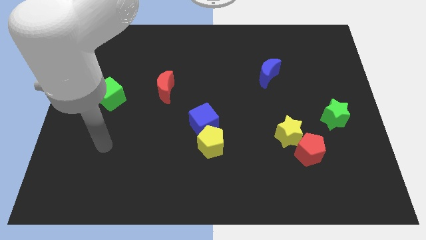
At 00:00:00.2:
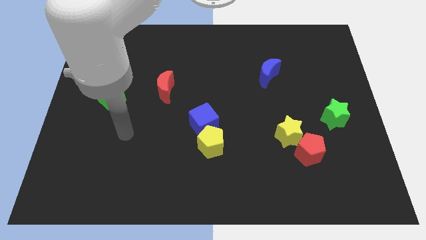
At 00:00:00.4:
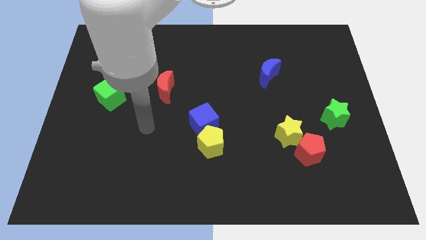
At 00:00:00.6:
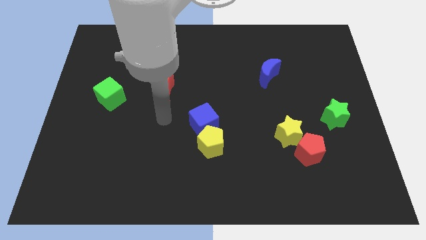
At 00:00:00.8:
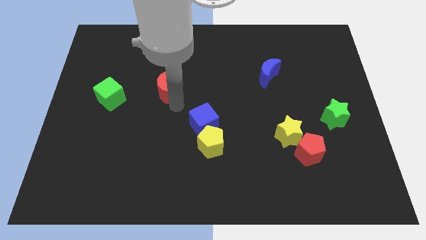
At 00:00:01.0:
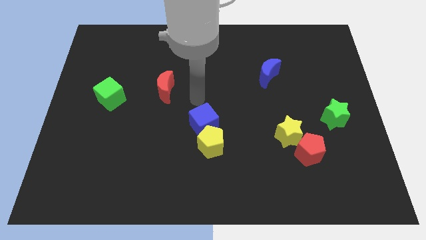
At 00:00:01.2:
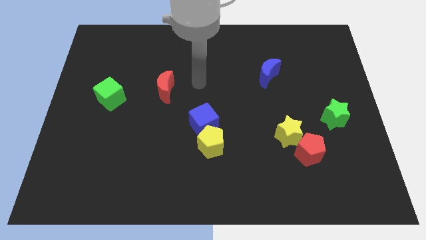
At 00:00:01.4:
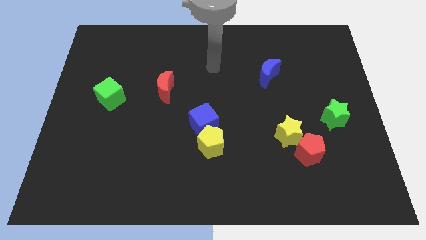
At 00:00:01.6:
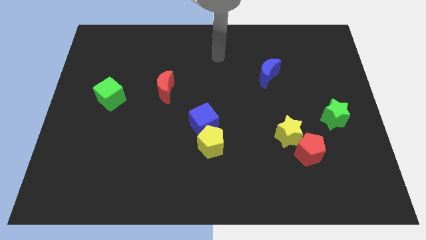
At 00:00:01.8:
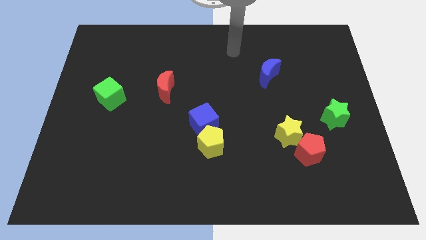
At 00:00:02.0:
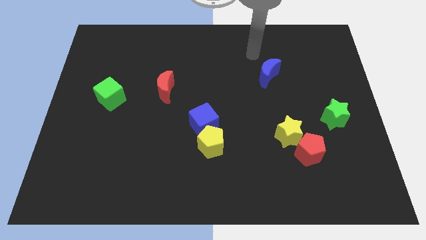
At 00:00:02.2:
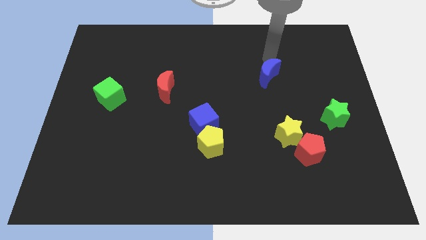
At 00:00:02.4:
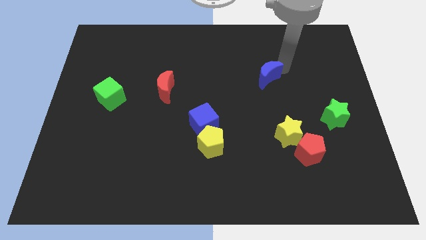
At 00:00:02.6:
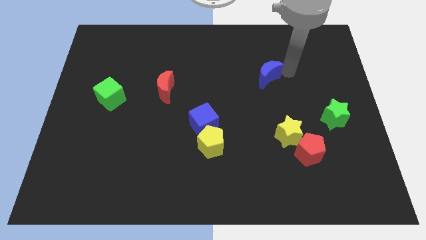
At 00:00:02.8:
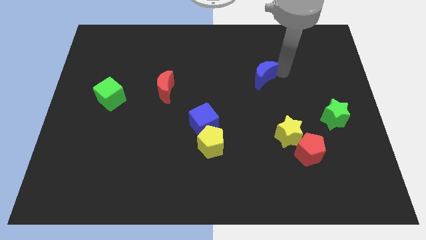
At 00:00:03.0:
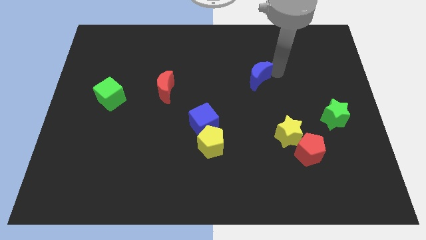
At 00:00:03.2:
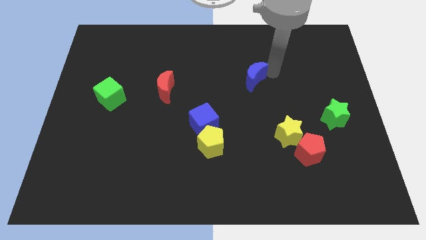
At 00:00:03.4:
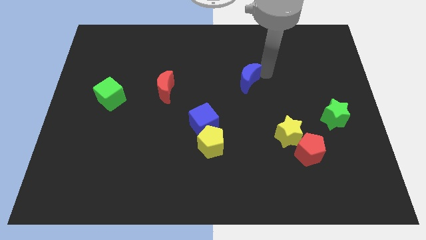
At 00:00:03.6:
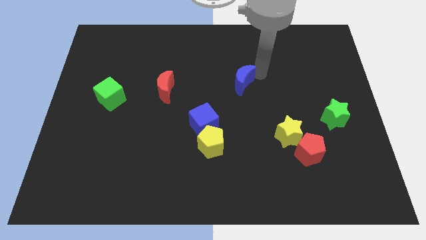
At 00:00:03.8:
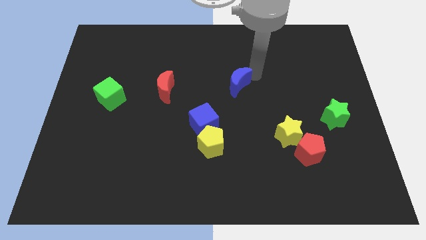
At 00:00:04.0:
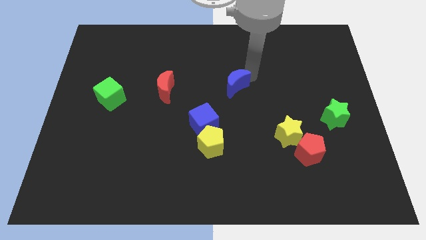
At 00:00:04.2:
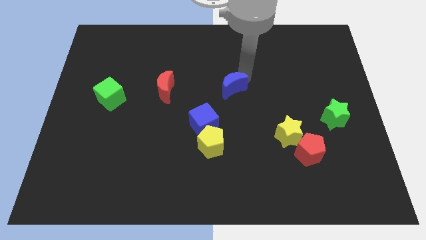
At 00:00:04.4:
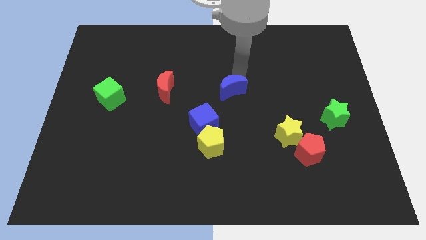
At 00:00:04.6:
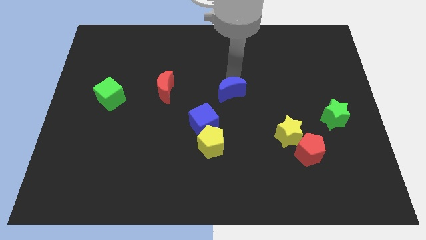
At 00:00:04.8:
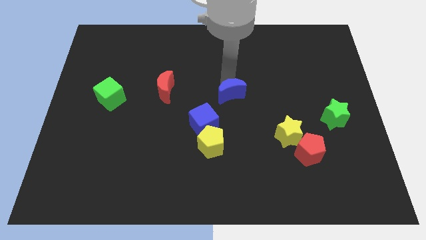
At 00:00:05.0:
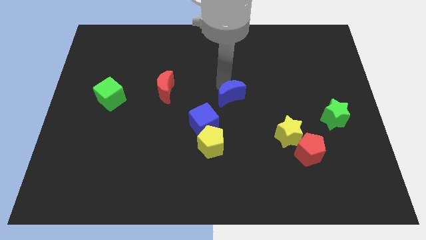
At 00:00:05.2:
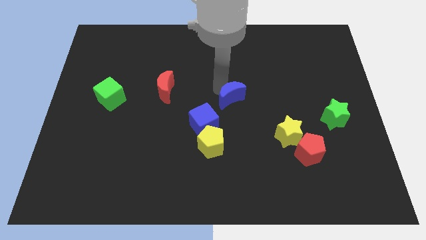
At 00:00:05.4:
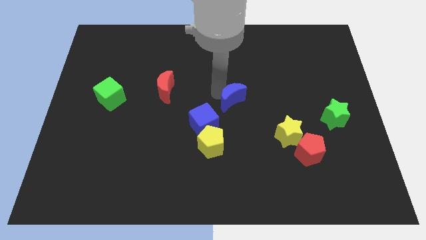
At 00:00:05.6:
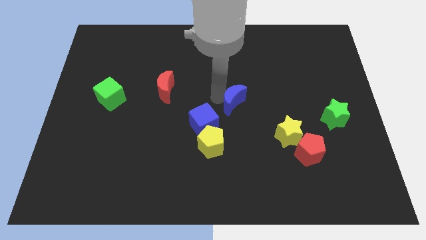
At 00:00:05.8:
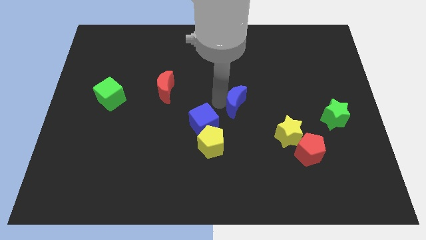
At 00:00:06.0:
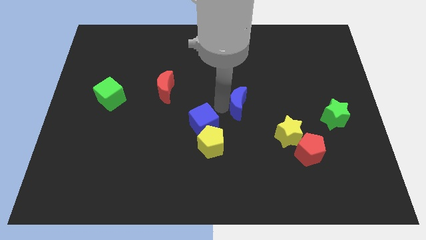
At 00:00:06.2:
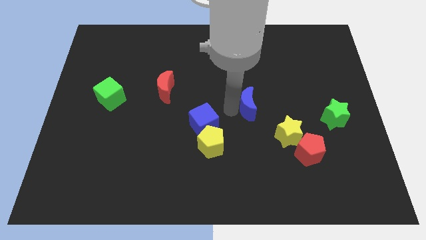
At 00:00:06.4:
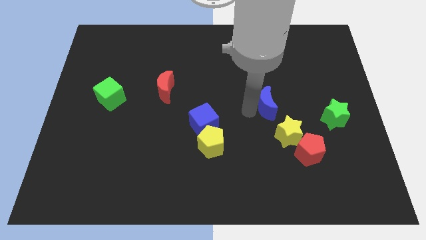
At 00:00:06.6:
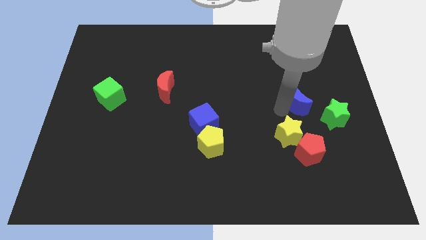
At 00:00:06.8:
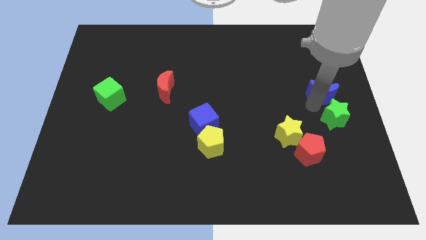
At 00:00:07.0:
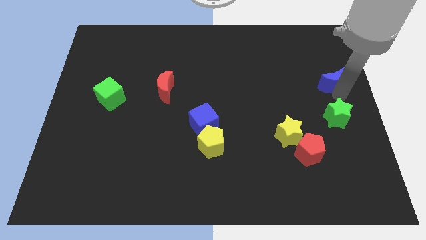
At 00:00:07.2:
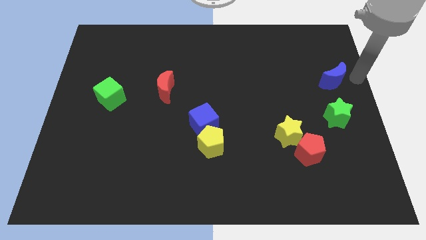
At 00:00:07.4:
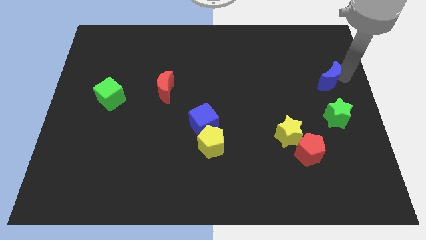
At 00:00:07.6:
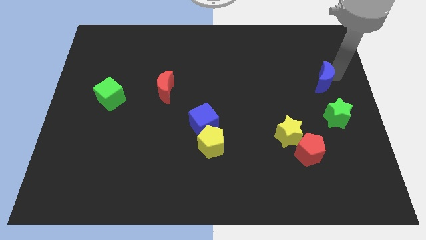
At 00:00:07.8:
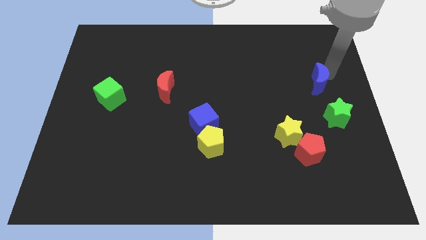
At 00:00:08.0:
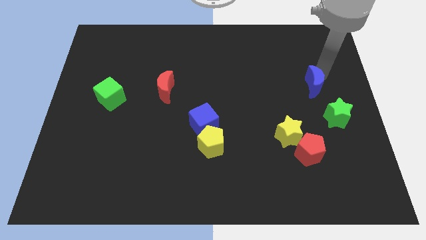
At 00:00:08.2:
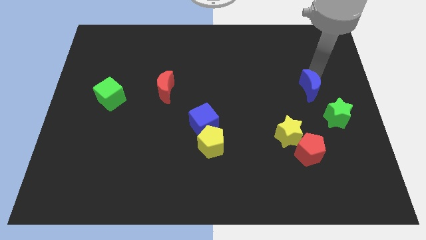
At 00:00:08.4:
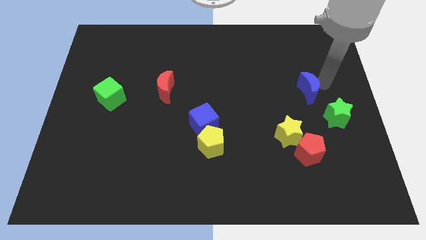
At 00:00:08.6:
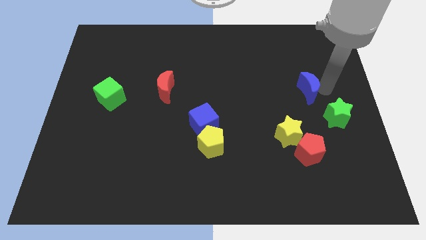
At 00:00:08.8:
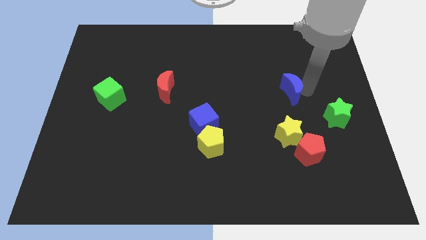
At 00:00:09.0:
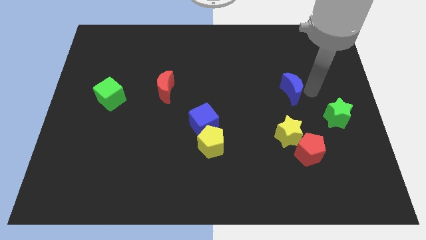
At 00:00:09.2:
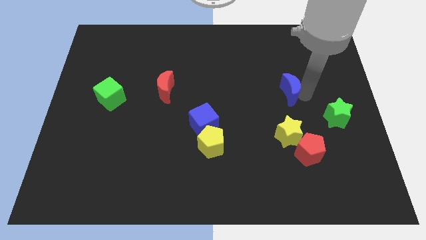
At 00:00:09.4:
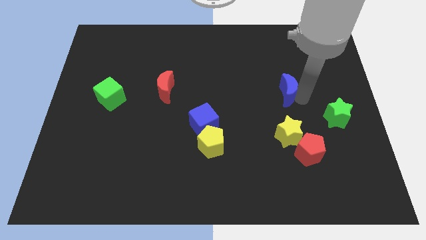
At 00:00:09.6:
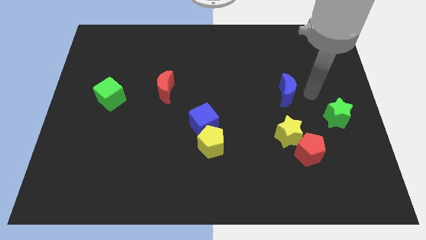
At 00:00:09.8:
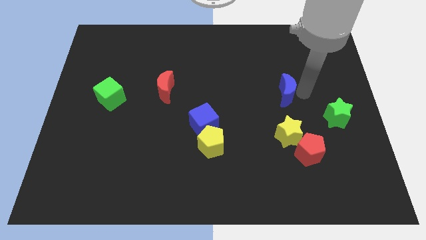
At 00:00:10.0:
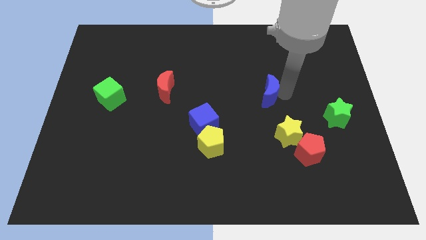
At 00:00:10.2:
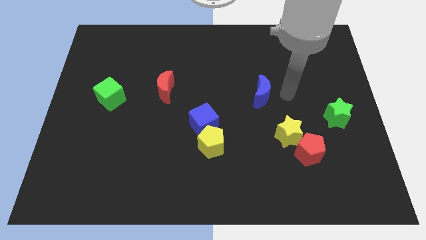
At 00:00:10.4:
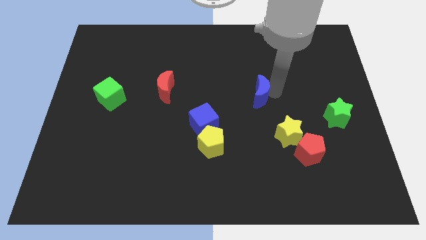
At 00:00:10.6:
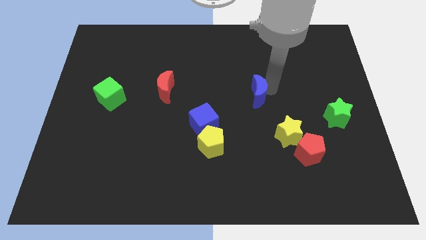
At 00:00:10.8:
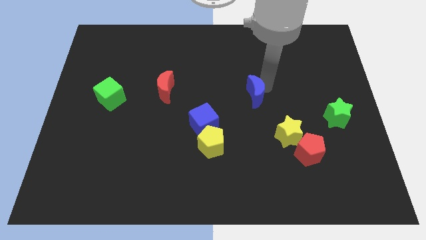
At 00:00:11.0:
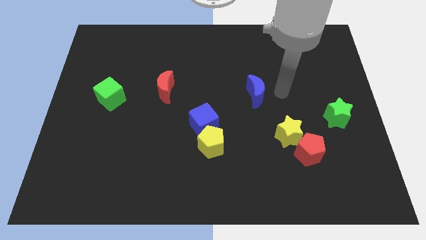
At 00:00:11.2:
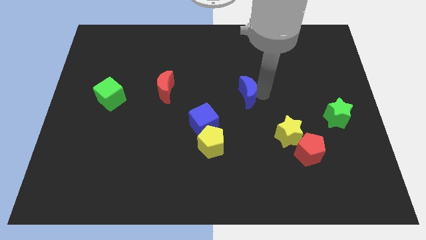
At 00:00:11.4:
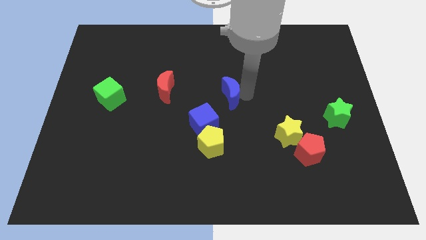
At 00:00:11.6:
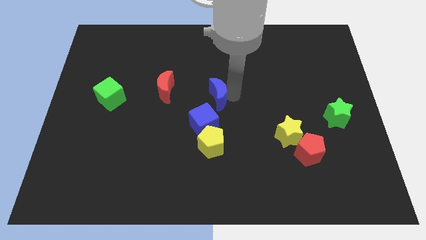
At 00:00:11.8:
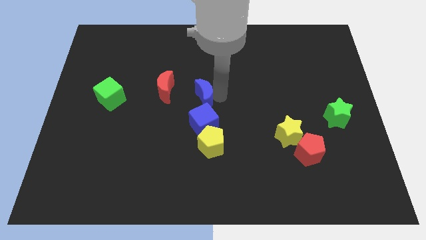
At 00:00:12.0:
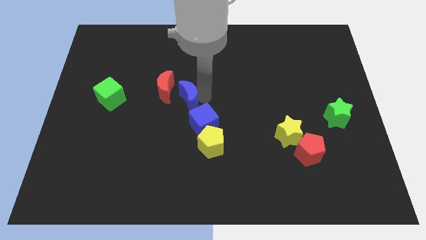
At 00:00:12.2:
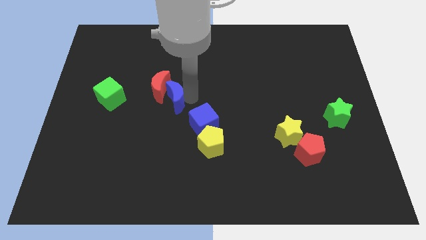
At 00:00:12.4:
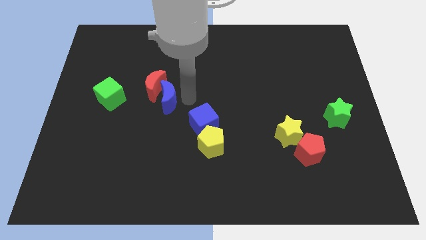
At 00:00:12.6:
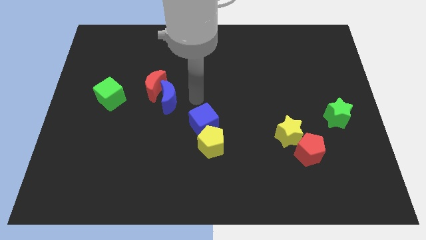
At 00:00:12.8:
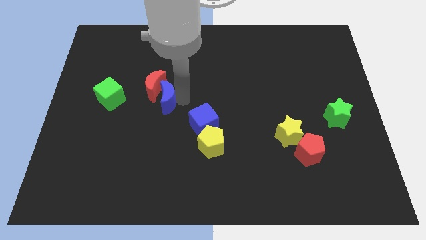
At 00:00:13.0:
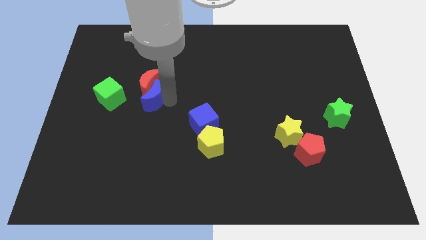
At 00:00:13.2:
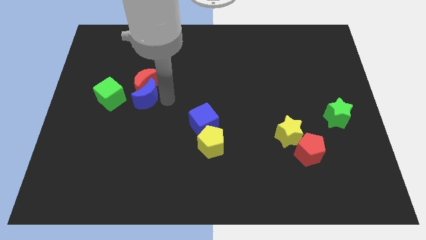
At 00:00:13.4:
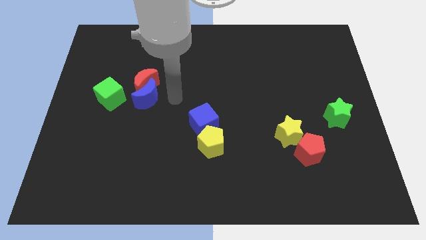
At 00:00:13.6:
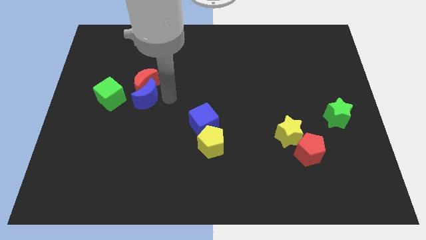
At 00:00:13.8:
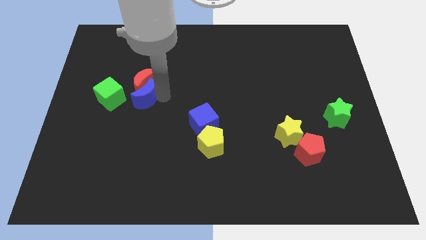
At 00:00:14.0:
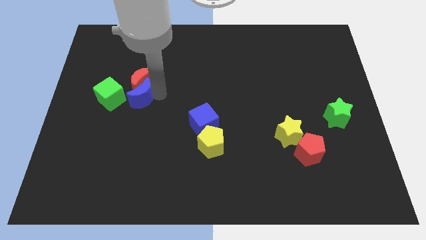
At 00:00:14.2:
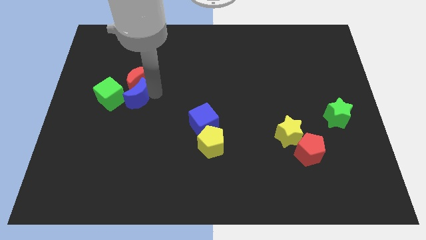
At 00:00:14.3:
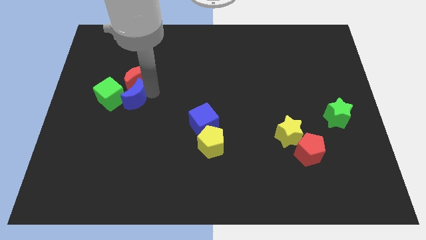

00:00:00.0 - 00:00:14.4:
slide the blue moon next to the green cube
